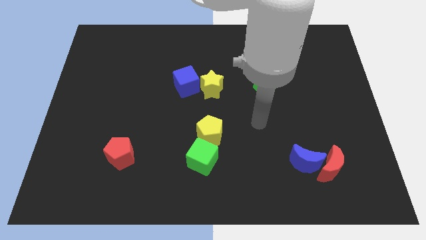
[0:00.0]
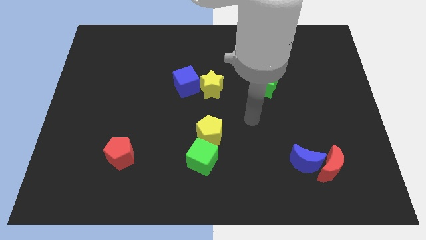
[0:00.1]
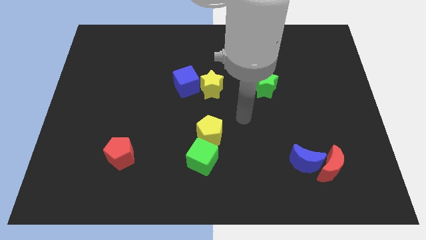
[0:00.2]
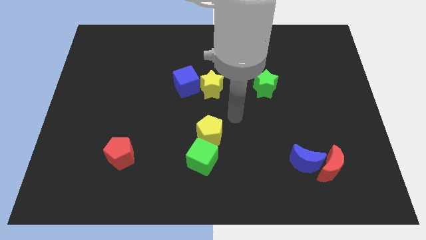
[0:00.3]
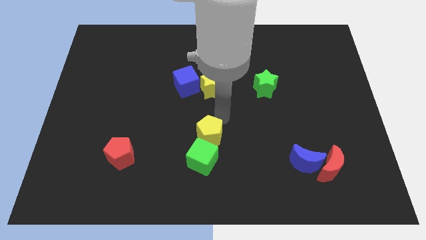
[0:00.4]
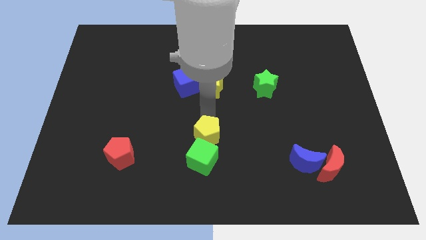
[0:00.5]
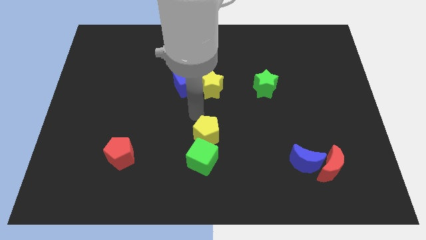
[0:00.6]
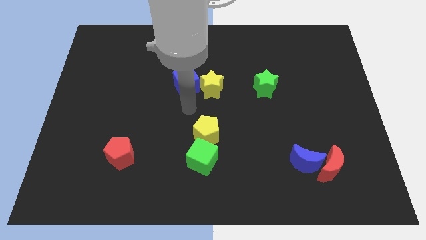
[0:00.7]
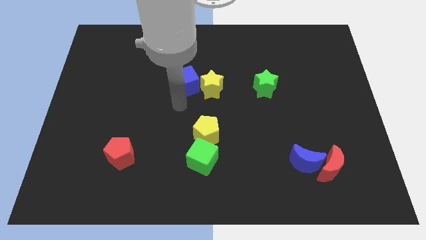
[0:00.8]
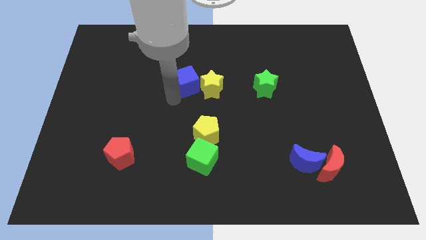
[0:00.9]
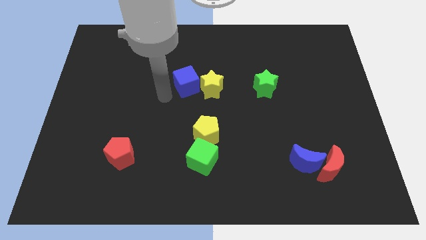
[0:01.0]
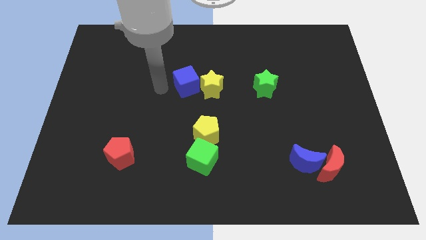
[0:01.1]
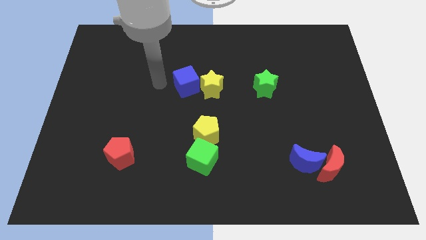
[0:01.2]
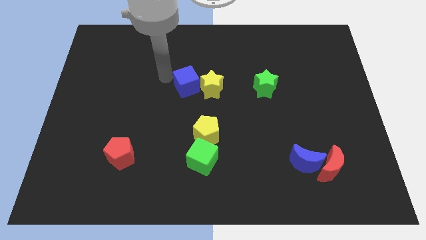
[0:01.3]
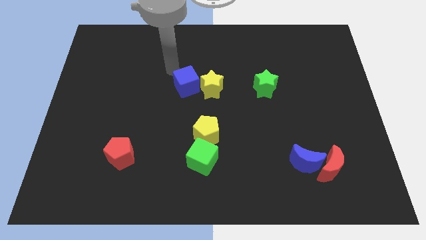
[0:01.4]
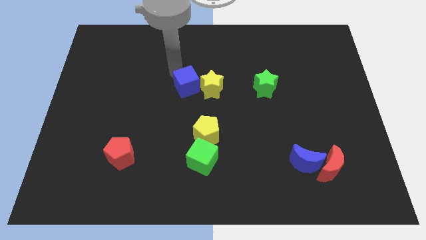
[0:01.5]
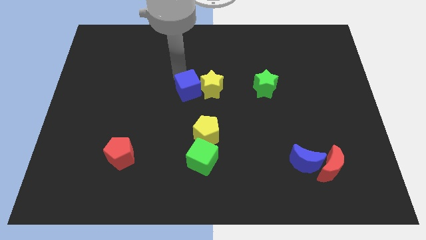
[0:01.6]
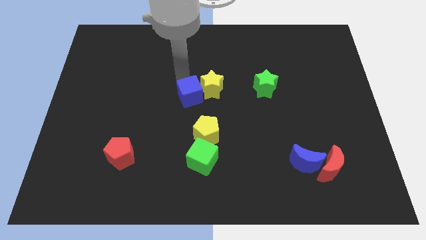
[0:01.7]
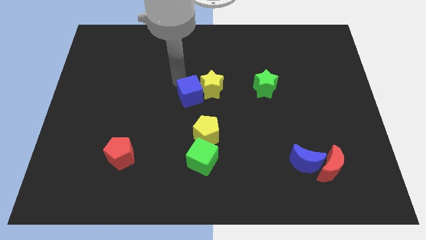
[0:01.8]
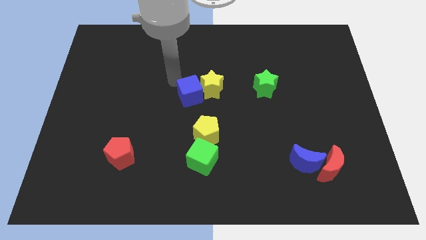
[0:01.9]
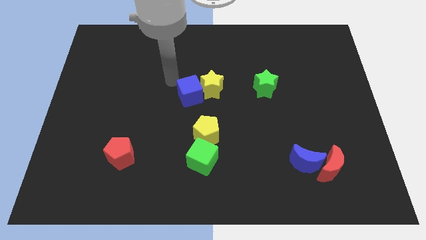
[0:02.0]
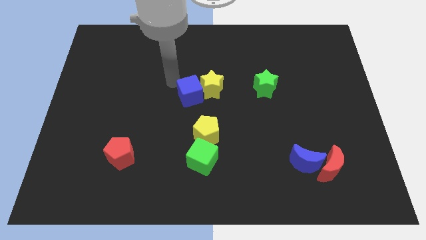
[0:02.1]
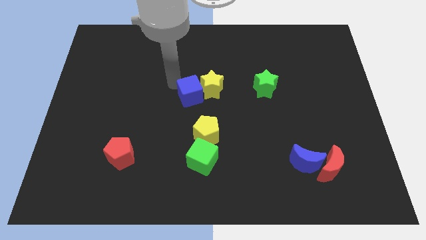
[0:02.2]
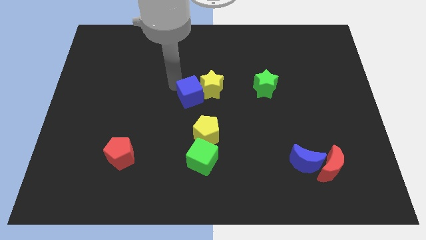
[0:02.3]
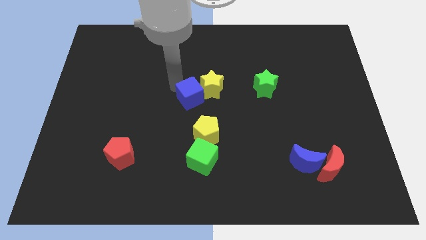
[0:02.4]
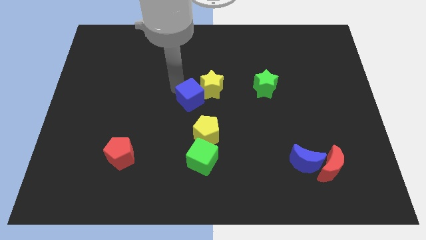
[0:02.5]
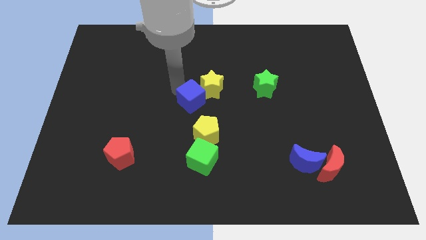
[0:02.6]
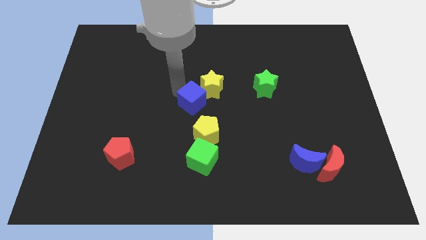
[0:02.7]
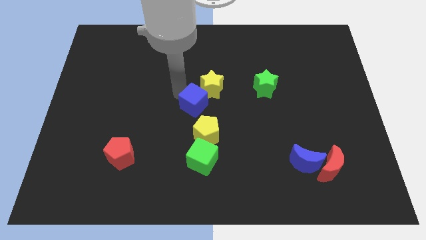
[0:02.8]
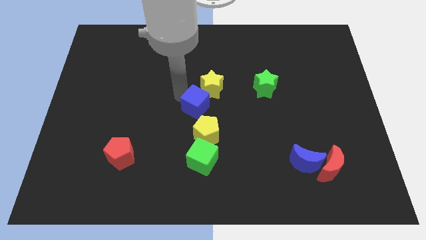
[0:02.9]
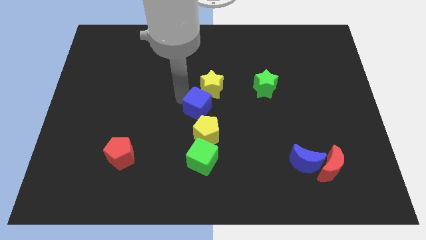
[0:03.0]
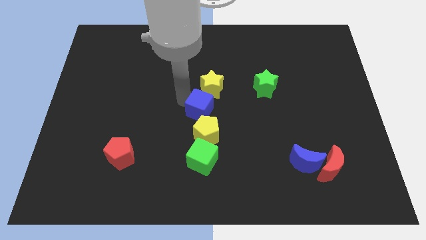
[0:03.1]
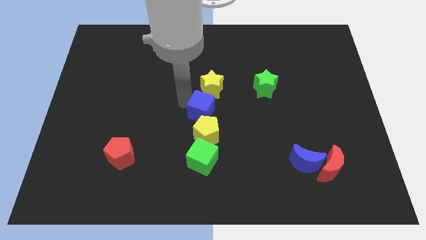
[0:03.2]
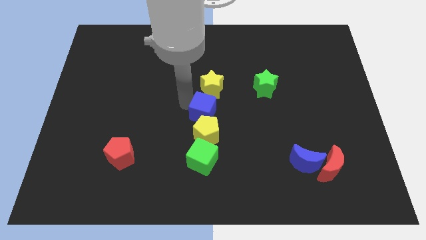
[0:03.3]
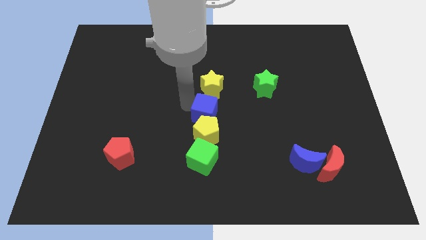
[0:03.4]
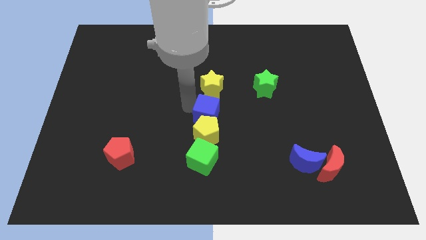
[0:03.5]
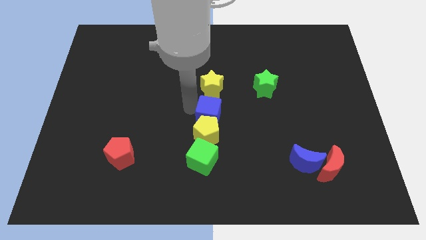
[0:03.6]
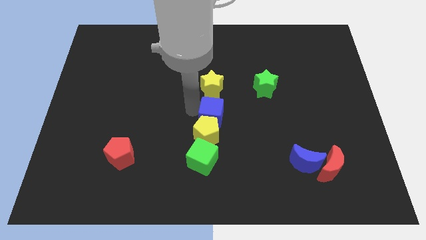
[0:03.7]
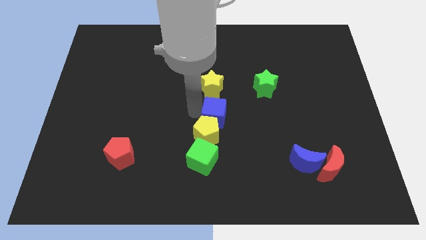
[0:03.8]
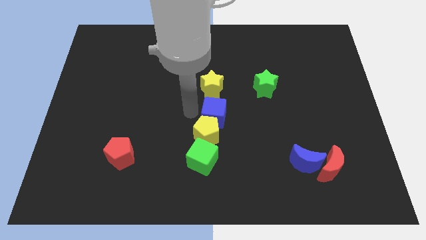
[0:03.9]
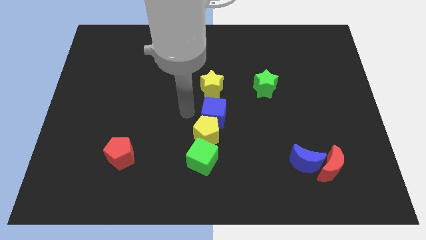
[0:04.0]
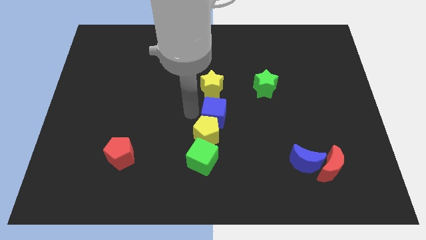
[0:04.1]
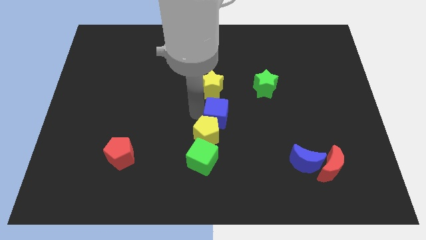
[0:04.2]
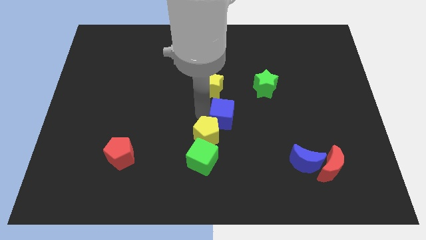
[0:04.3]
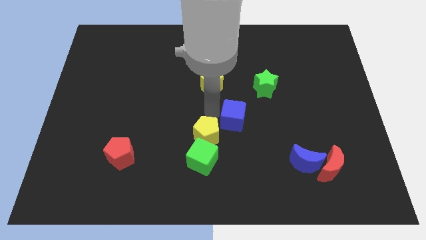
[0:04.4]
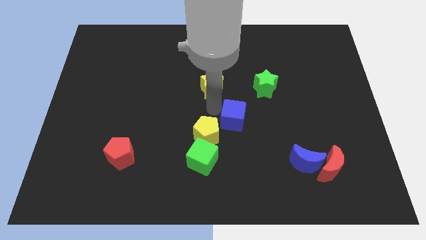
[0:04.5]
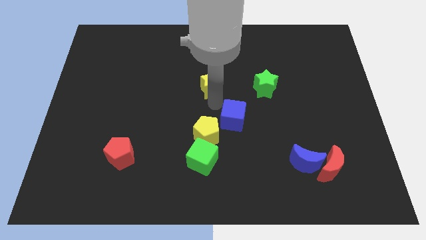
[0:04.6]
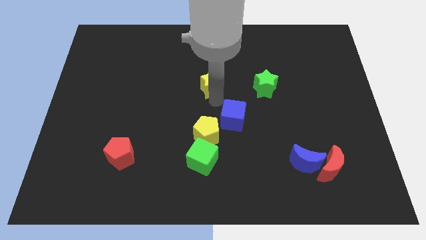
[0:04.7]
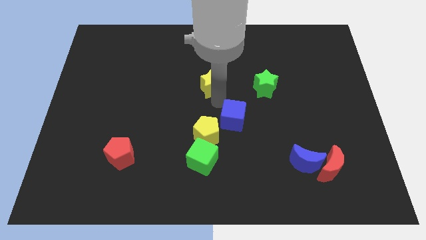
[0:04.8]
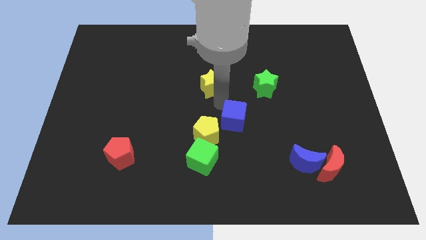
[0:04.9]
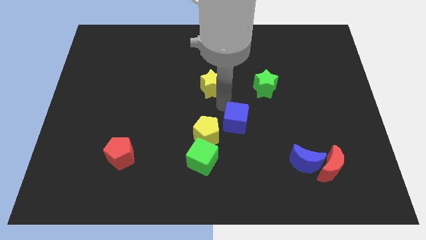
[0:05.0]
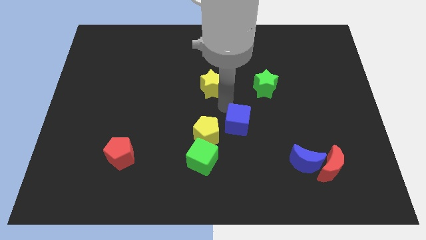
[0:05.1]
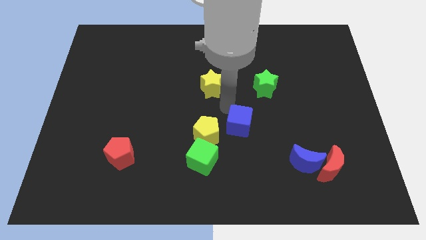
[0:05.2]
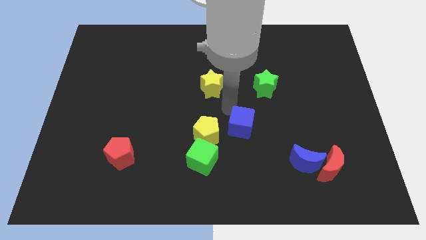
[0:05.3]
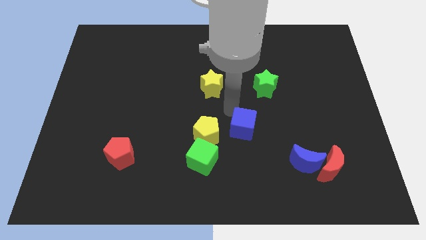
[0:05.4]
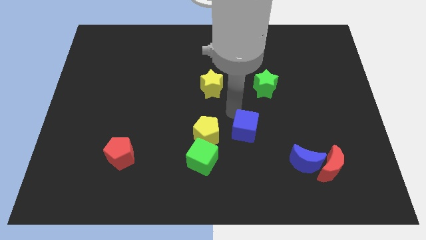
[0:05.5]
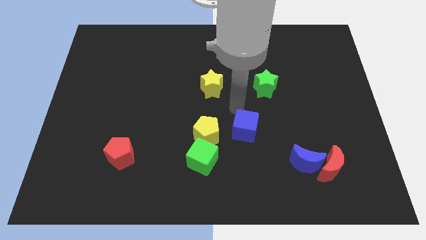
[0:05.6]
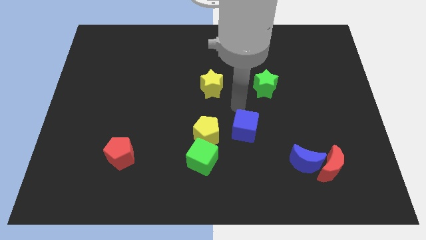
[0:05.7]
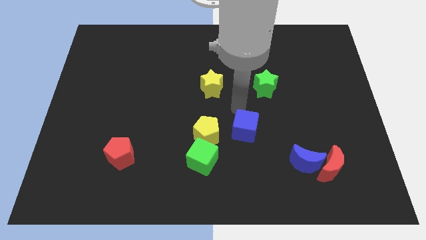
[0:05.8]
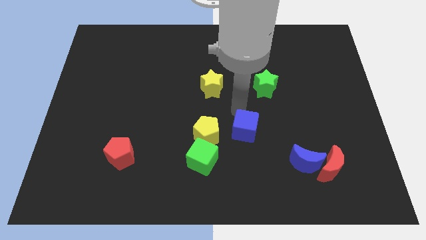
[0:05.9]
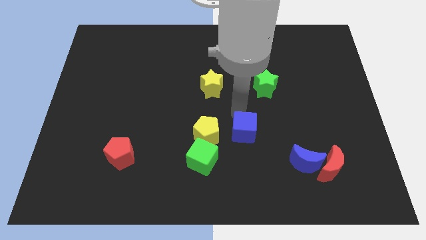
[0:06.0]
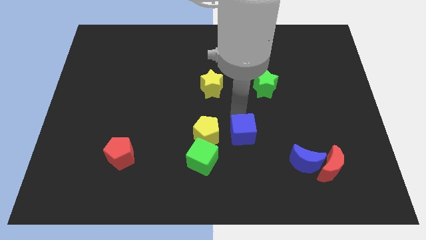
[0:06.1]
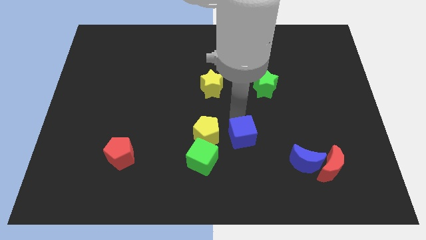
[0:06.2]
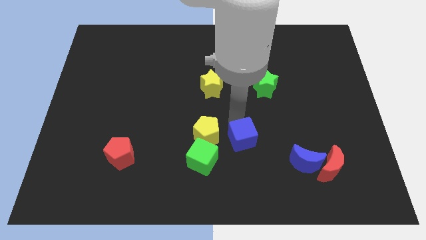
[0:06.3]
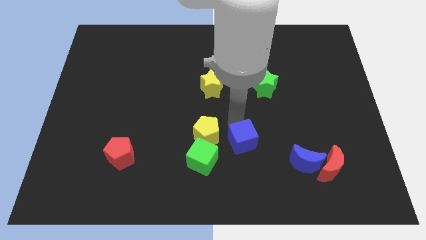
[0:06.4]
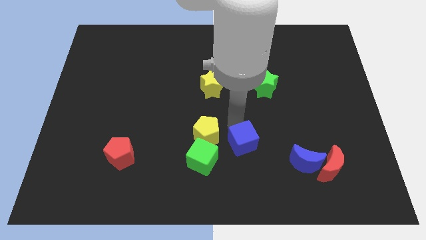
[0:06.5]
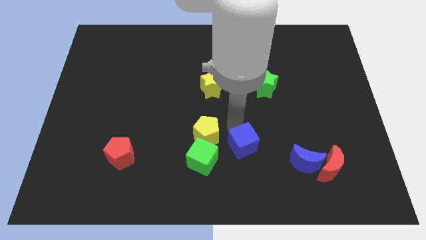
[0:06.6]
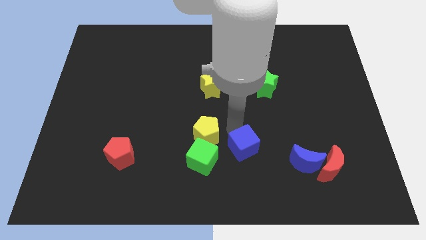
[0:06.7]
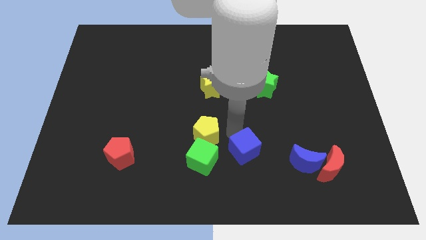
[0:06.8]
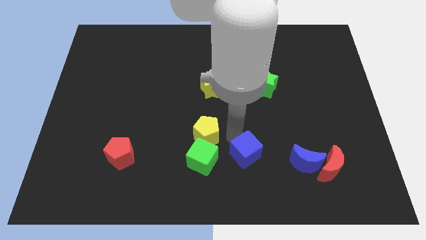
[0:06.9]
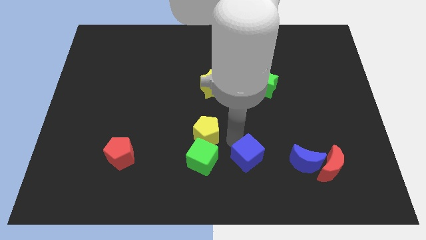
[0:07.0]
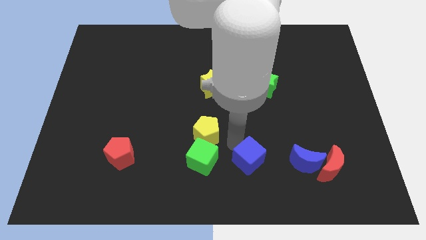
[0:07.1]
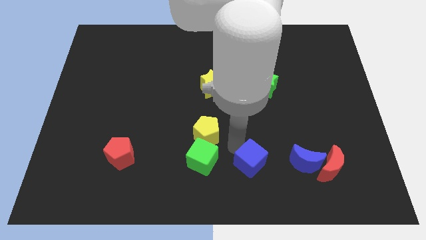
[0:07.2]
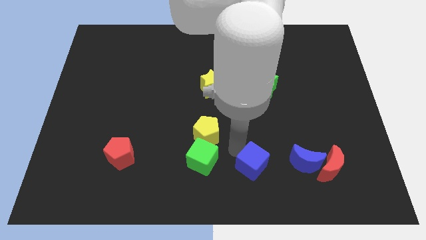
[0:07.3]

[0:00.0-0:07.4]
put the blue cube to the left side of the red moon
